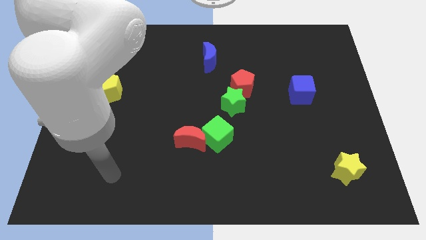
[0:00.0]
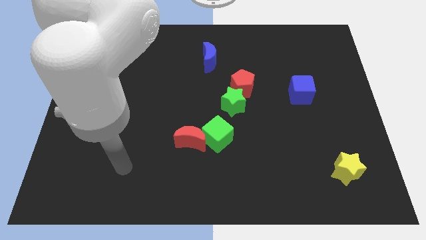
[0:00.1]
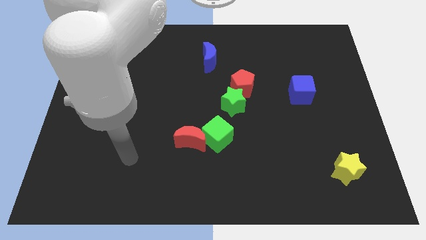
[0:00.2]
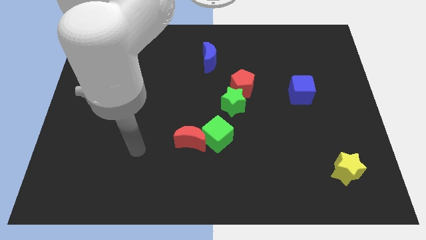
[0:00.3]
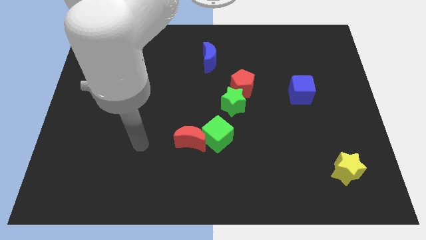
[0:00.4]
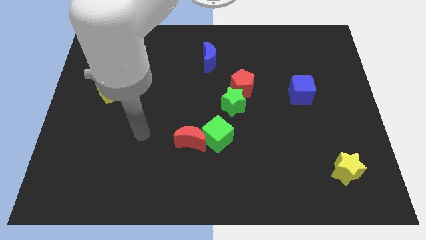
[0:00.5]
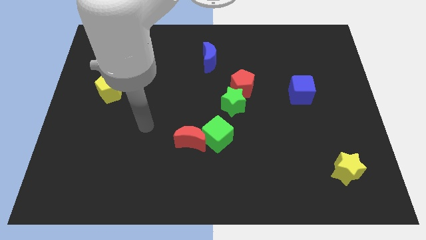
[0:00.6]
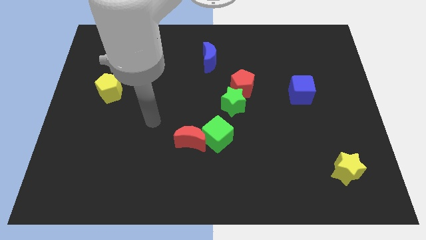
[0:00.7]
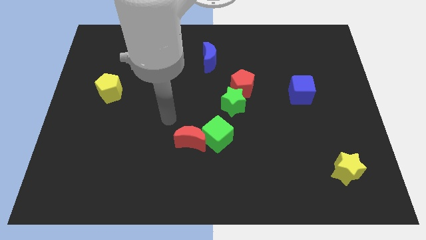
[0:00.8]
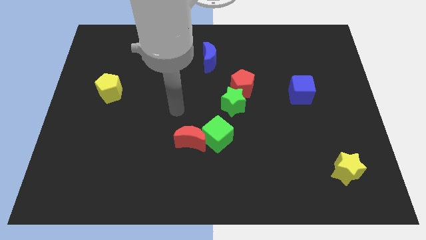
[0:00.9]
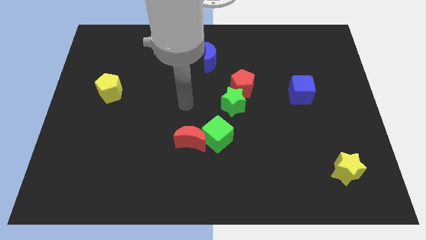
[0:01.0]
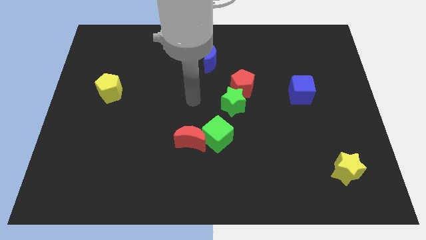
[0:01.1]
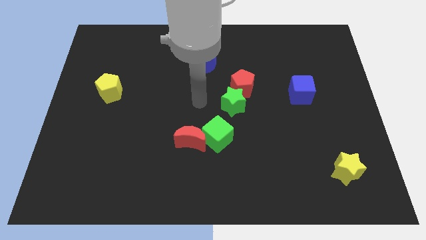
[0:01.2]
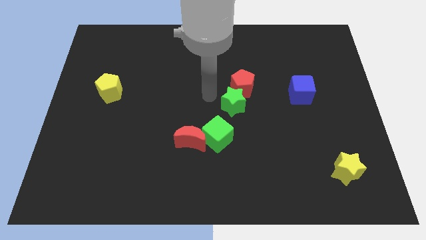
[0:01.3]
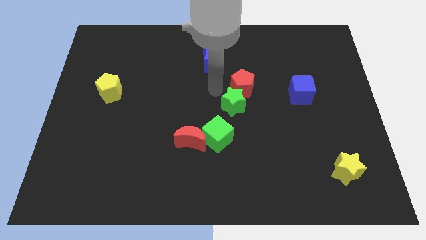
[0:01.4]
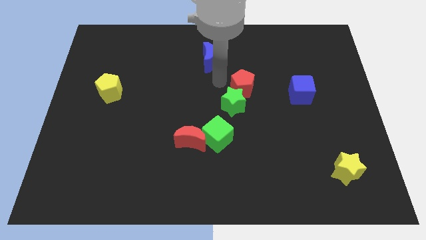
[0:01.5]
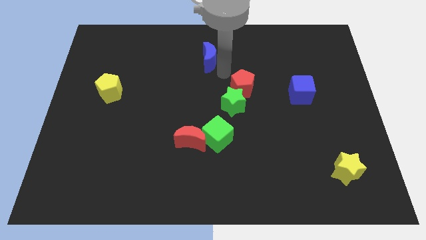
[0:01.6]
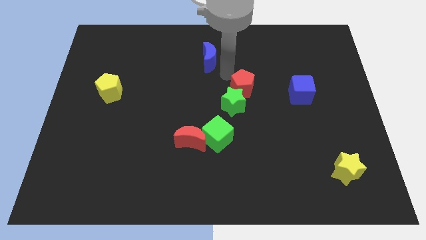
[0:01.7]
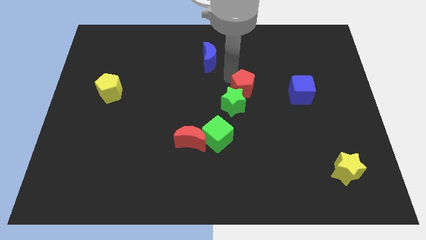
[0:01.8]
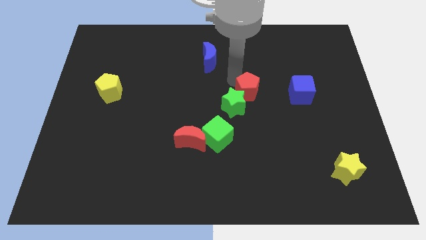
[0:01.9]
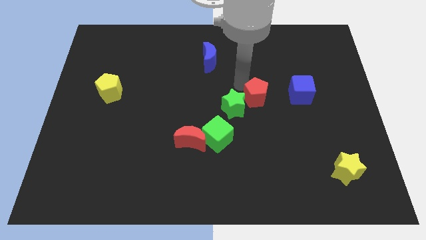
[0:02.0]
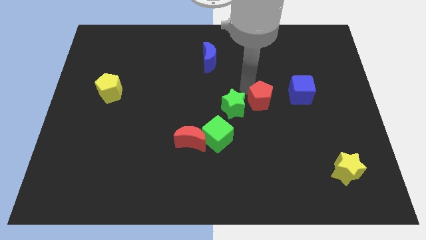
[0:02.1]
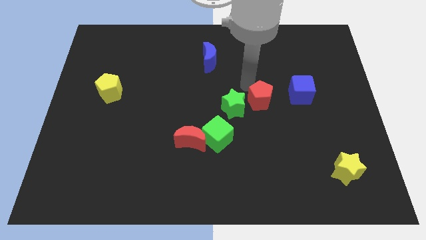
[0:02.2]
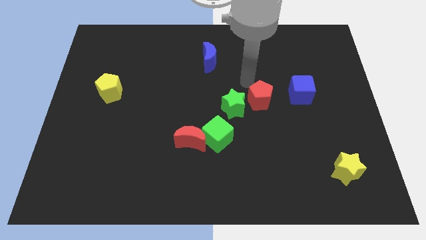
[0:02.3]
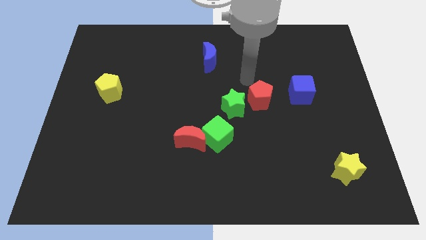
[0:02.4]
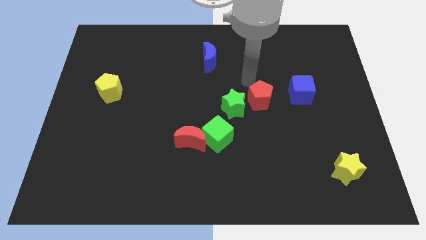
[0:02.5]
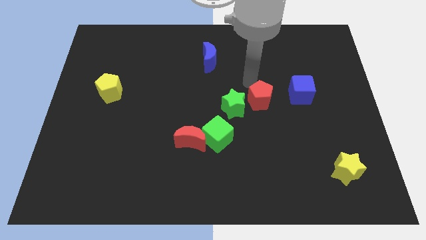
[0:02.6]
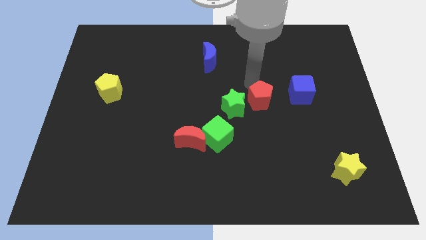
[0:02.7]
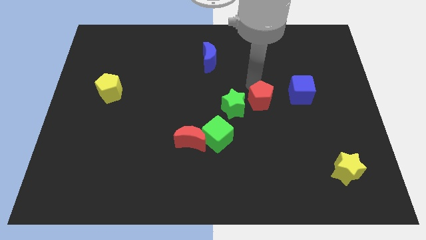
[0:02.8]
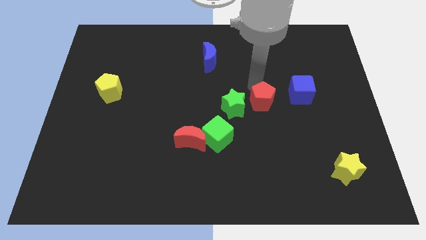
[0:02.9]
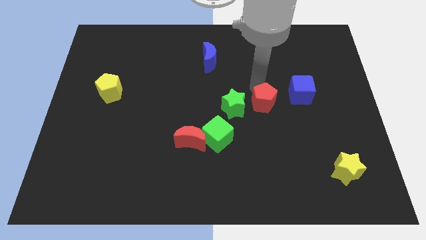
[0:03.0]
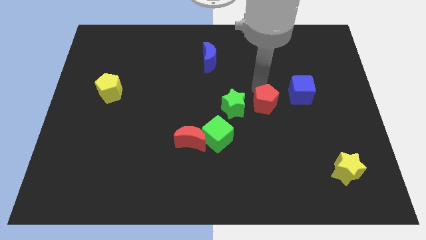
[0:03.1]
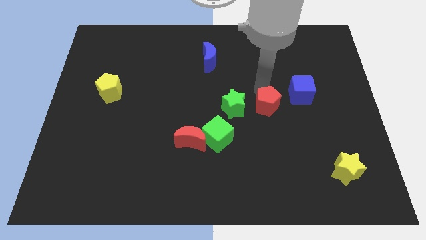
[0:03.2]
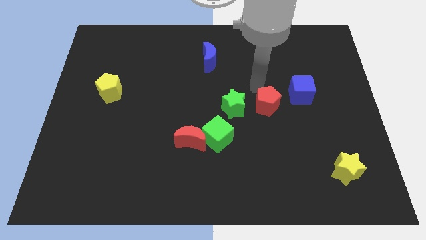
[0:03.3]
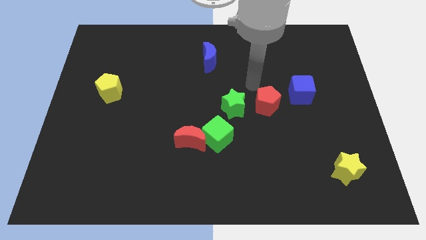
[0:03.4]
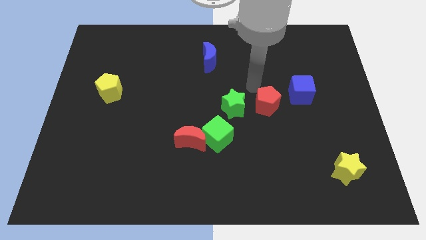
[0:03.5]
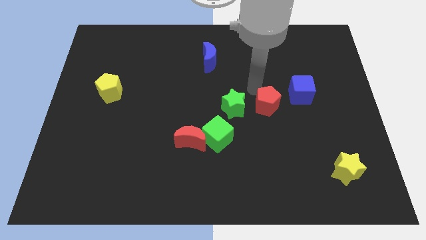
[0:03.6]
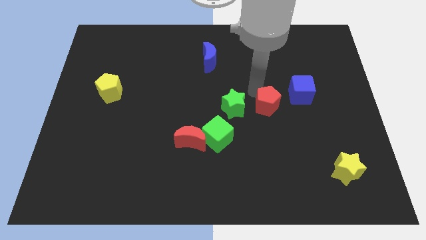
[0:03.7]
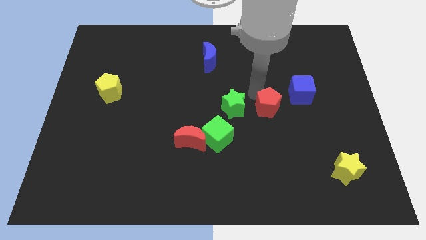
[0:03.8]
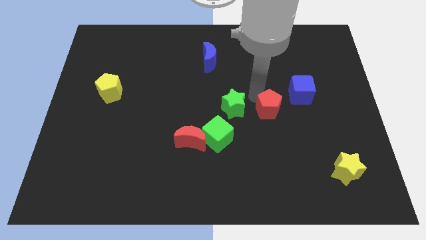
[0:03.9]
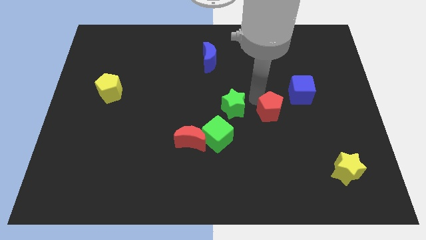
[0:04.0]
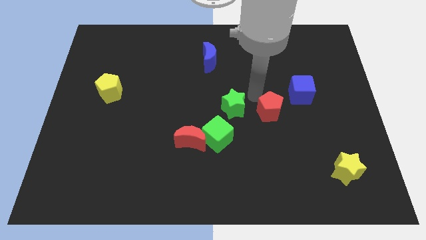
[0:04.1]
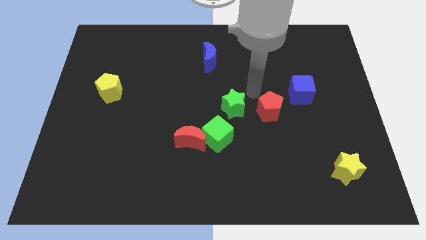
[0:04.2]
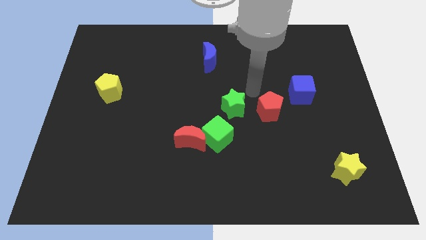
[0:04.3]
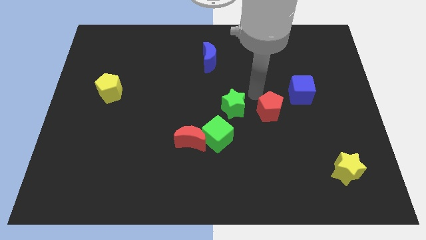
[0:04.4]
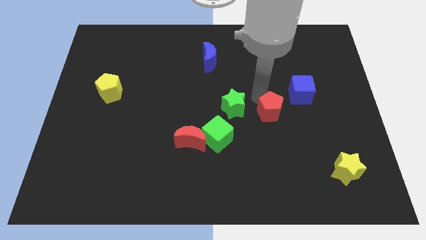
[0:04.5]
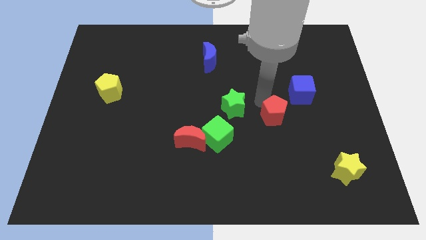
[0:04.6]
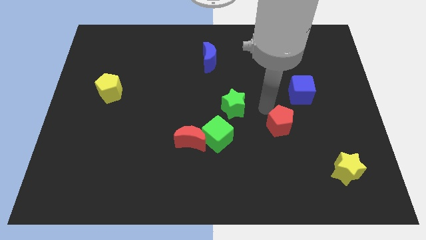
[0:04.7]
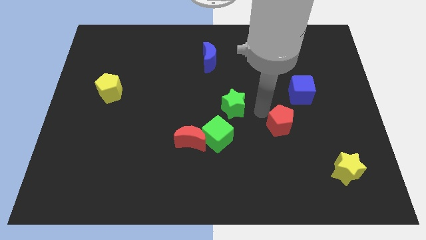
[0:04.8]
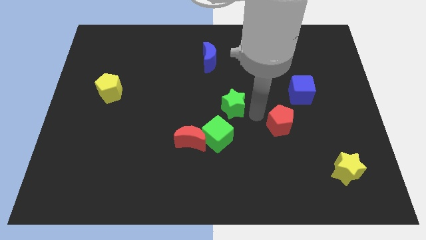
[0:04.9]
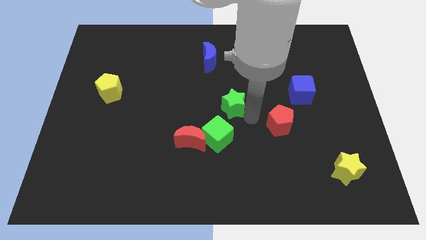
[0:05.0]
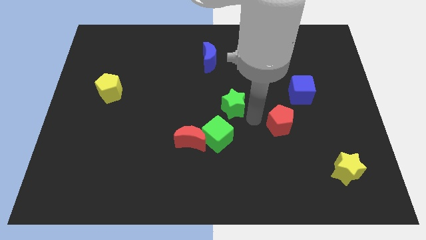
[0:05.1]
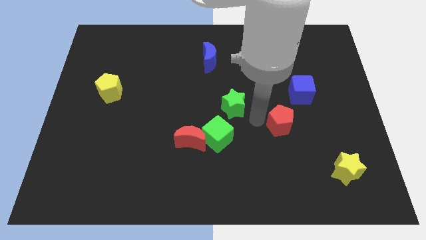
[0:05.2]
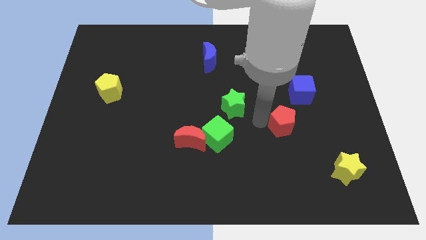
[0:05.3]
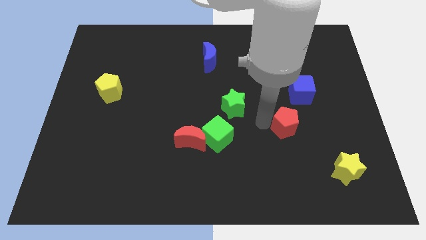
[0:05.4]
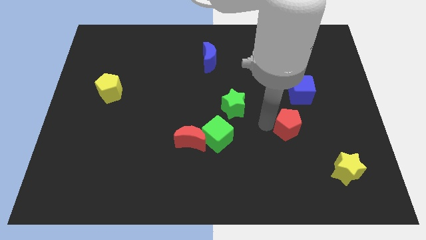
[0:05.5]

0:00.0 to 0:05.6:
slide the red pentagon to the bottom side of the blue cube

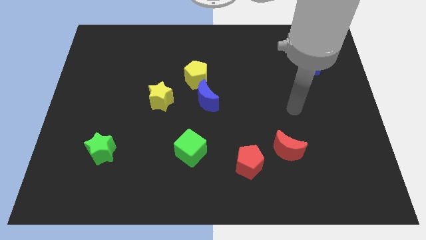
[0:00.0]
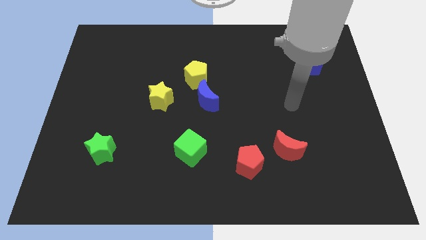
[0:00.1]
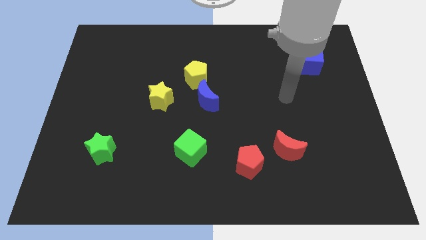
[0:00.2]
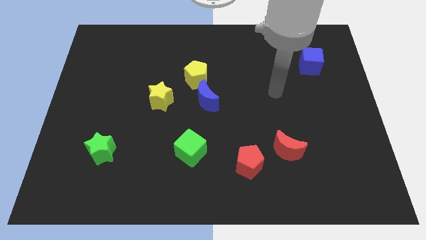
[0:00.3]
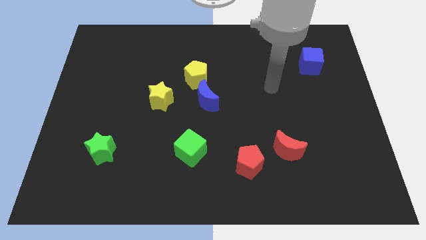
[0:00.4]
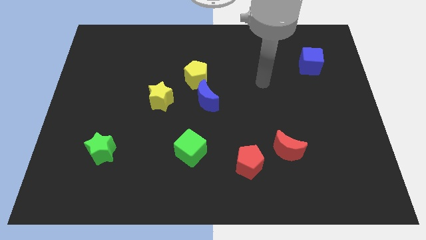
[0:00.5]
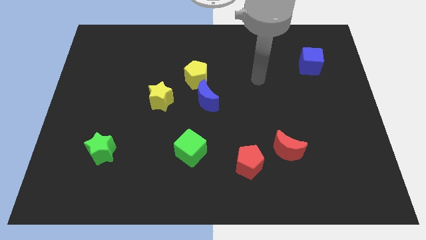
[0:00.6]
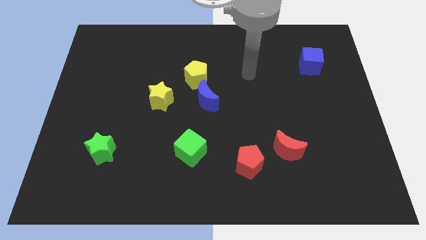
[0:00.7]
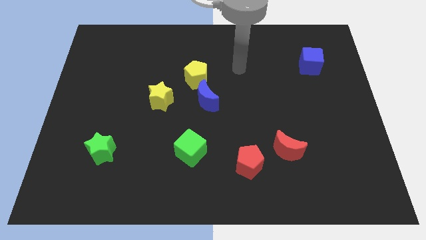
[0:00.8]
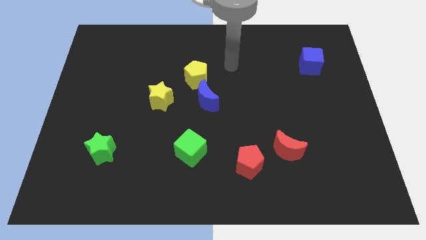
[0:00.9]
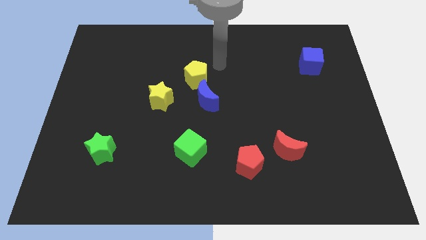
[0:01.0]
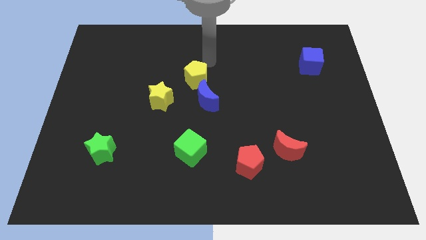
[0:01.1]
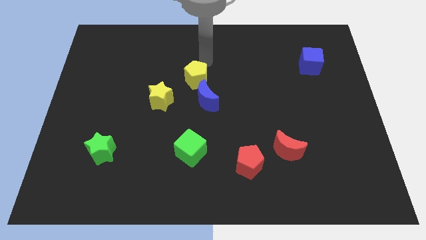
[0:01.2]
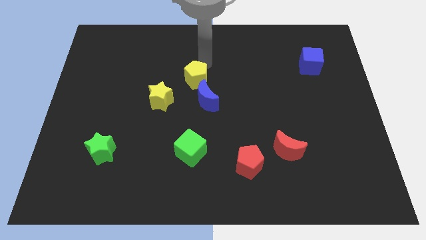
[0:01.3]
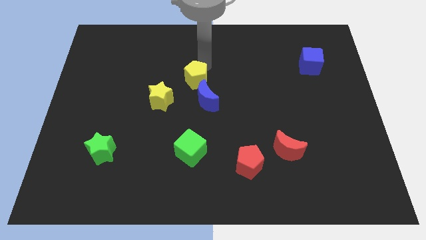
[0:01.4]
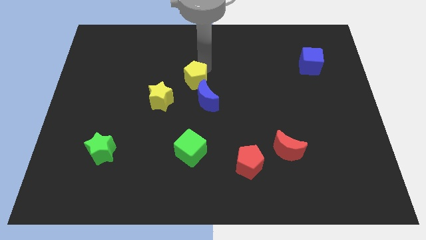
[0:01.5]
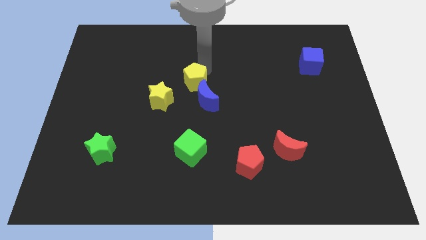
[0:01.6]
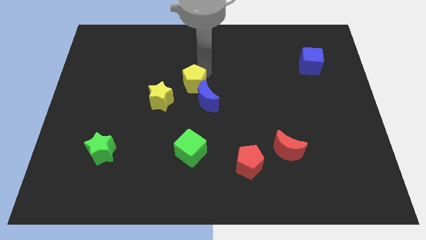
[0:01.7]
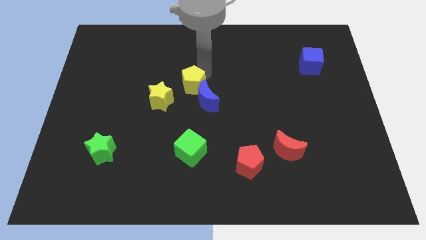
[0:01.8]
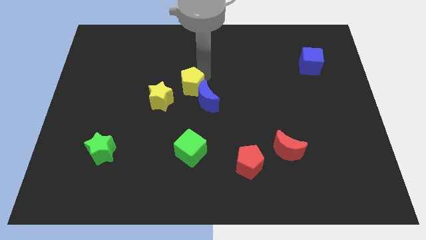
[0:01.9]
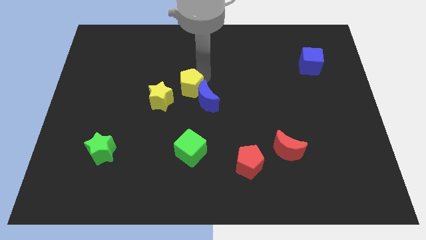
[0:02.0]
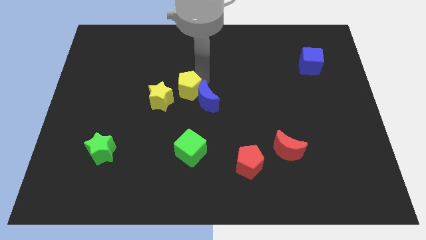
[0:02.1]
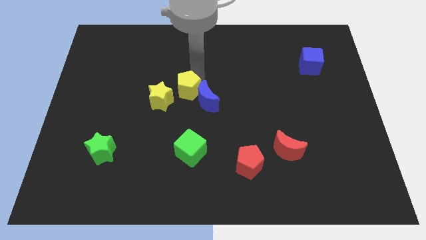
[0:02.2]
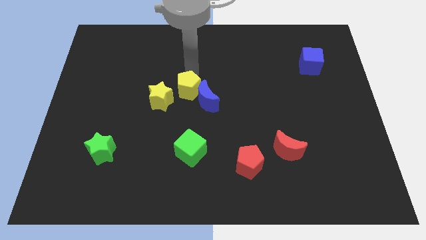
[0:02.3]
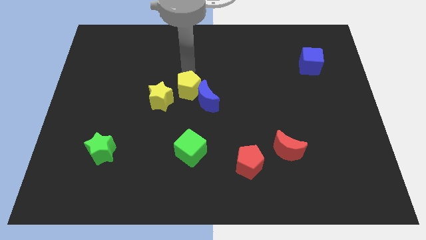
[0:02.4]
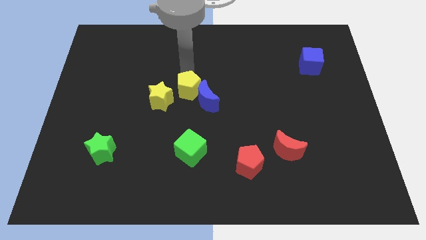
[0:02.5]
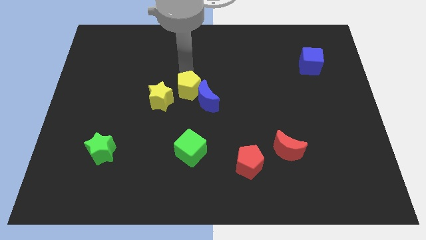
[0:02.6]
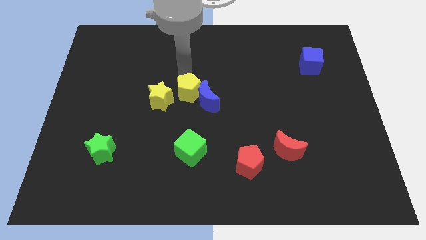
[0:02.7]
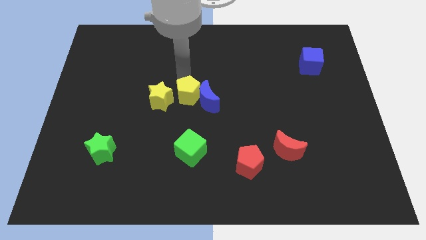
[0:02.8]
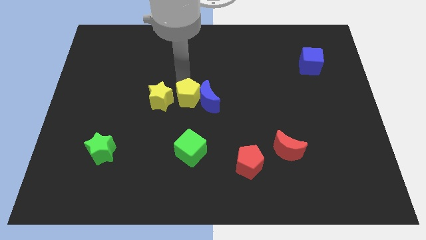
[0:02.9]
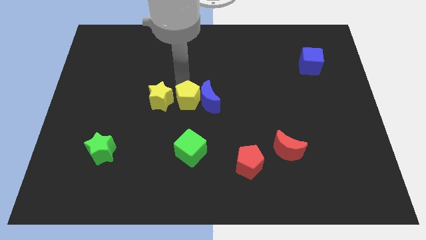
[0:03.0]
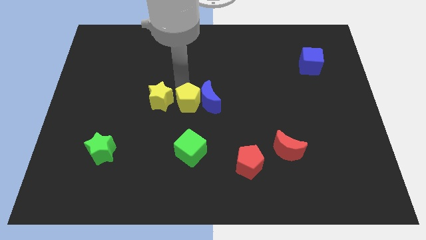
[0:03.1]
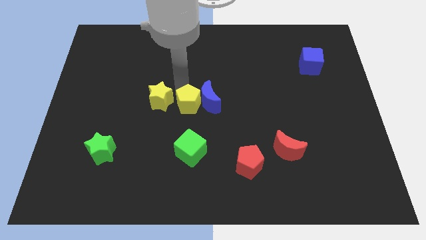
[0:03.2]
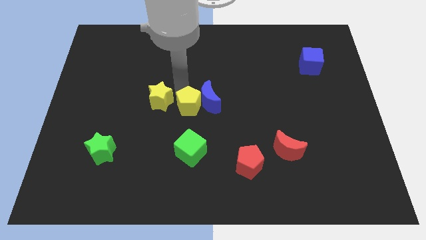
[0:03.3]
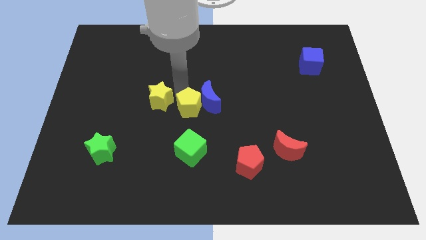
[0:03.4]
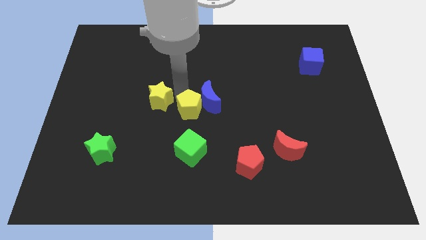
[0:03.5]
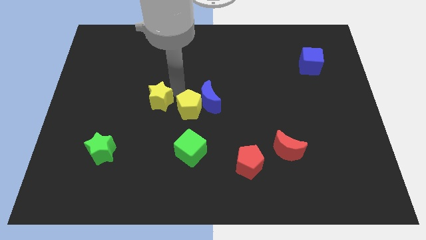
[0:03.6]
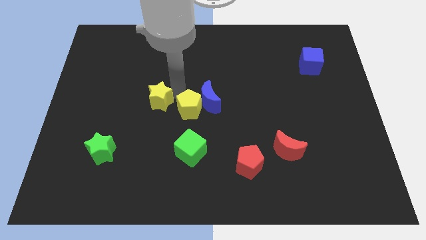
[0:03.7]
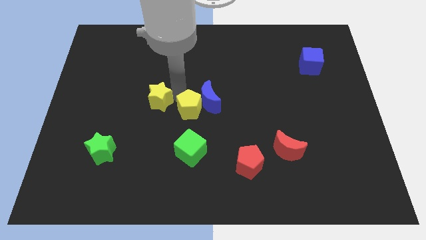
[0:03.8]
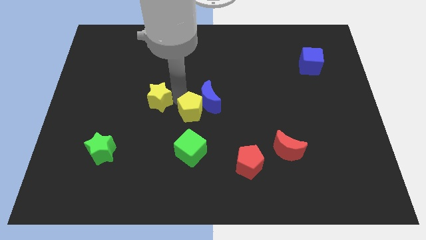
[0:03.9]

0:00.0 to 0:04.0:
put the yellow pentagon below the blue moon
